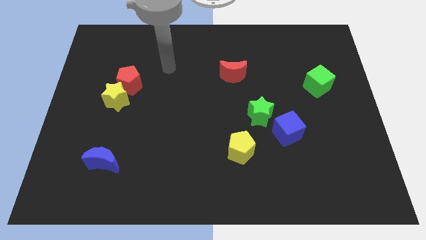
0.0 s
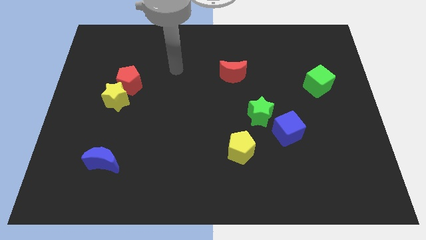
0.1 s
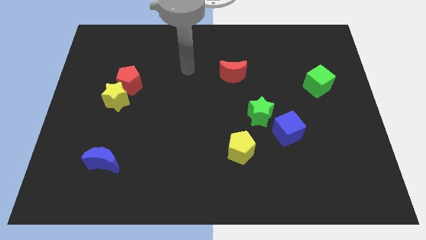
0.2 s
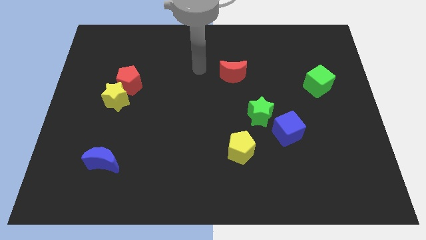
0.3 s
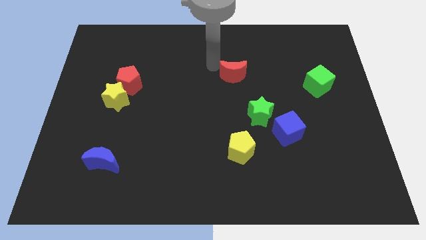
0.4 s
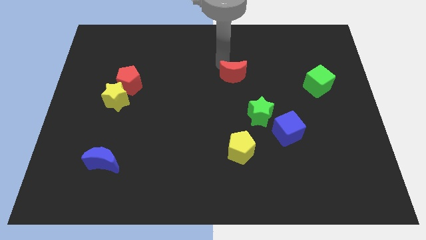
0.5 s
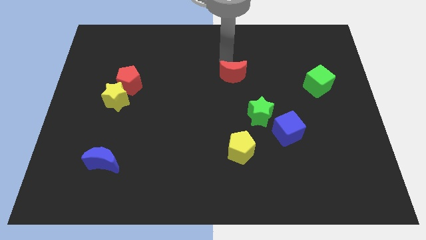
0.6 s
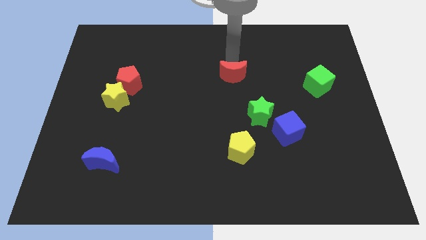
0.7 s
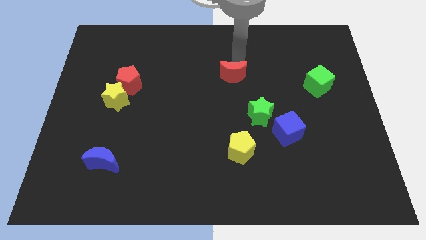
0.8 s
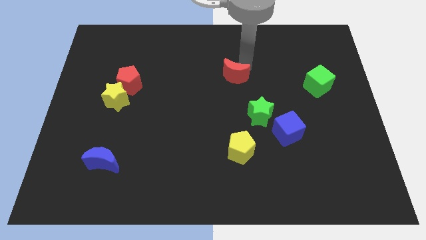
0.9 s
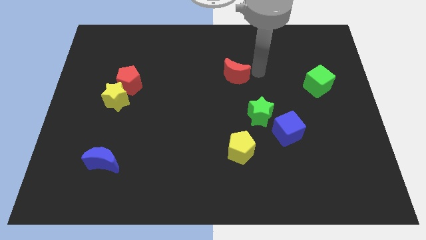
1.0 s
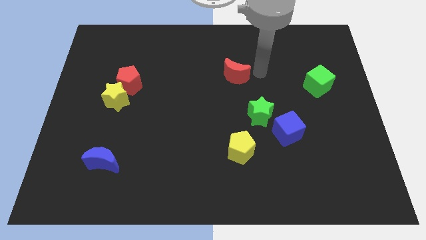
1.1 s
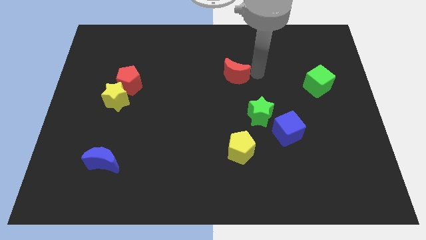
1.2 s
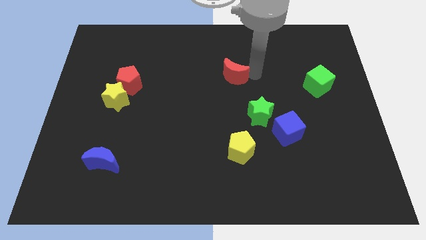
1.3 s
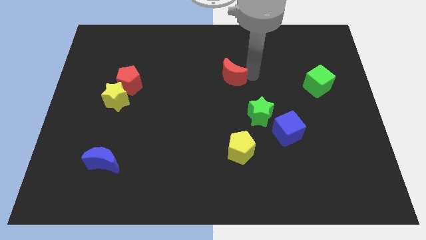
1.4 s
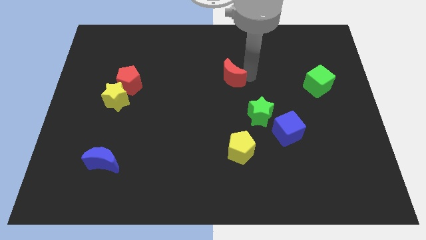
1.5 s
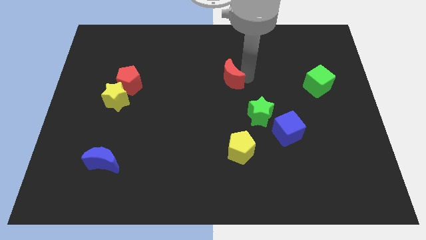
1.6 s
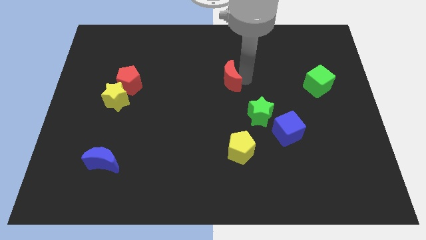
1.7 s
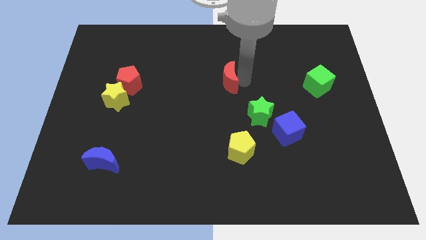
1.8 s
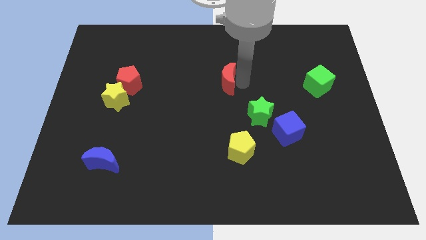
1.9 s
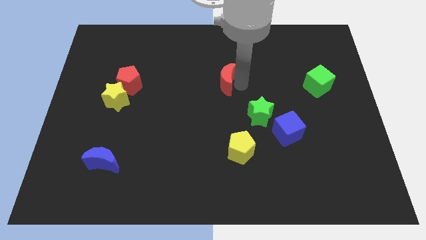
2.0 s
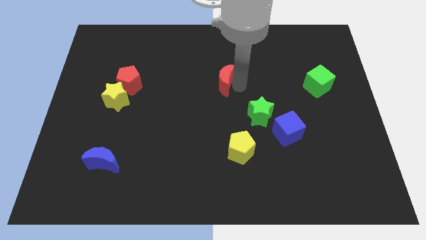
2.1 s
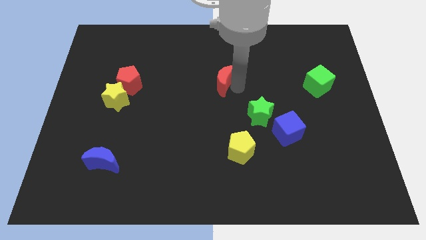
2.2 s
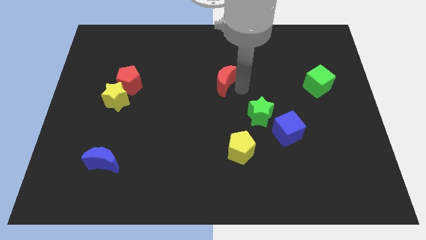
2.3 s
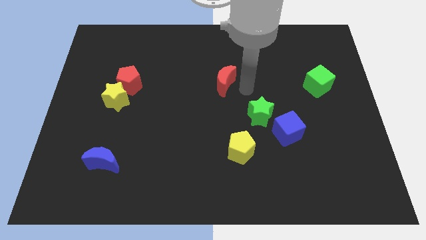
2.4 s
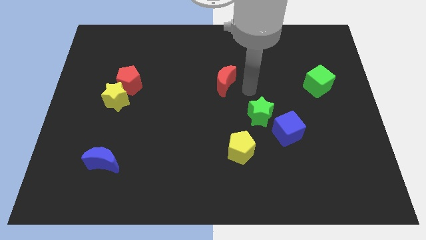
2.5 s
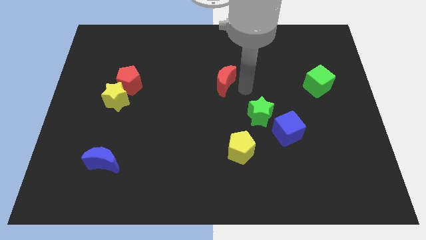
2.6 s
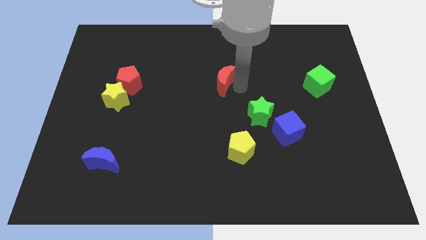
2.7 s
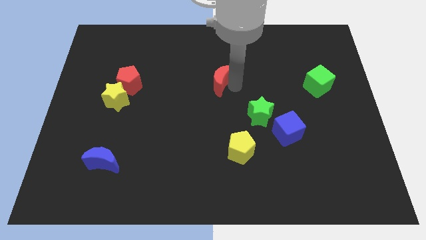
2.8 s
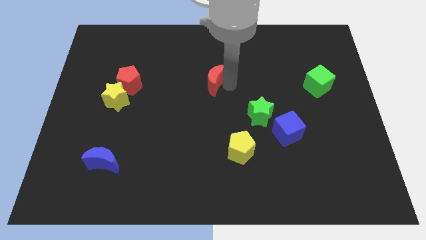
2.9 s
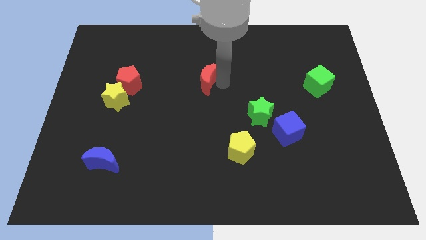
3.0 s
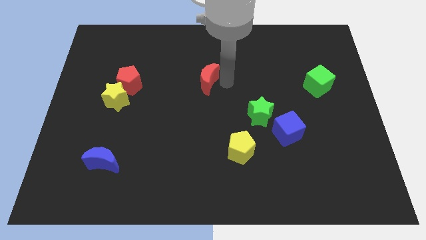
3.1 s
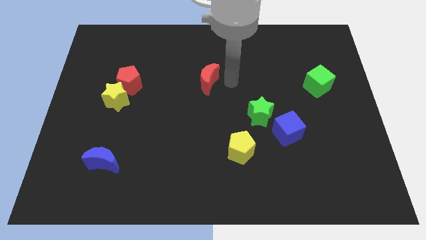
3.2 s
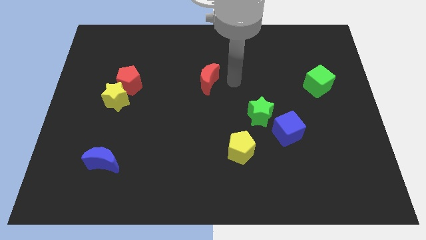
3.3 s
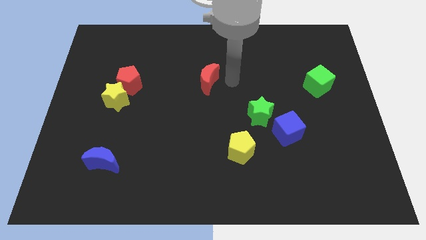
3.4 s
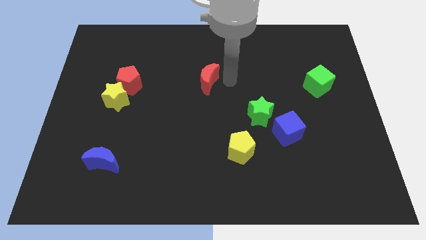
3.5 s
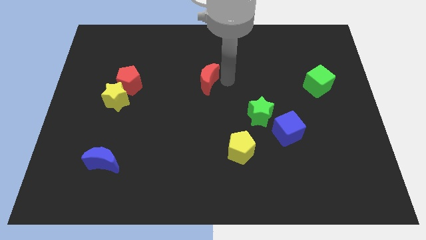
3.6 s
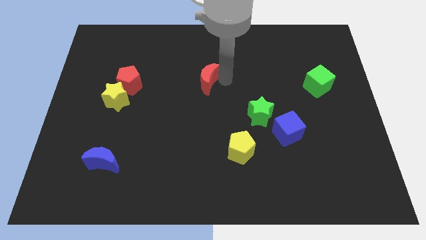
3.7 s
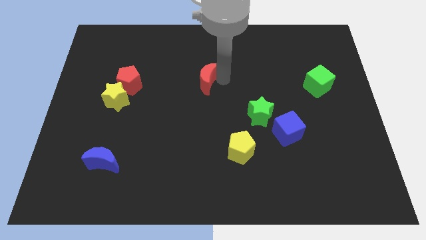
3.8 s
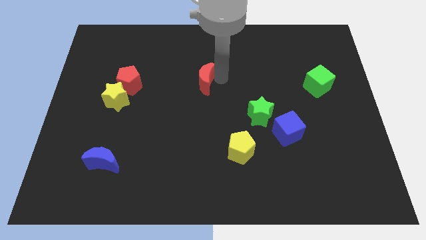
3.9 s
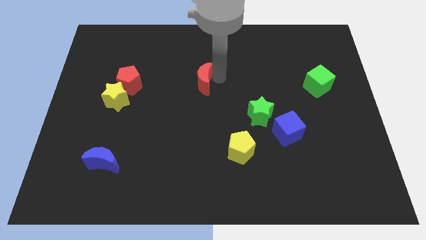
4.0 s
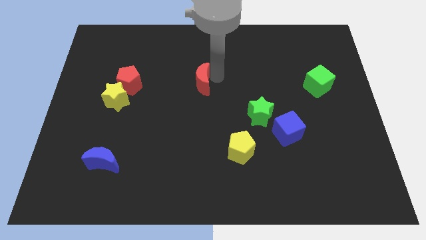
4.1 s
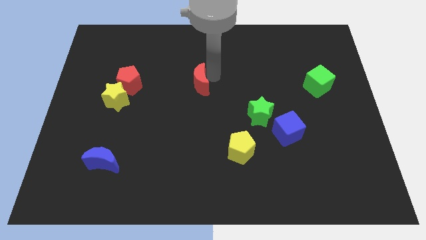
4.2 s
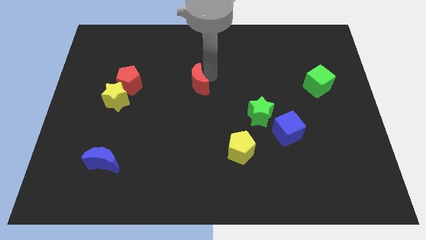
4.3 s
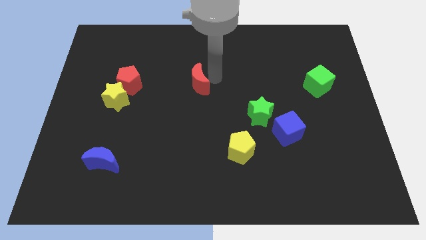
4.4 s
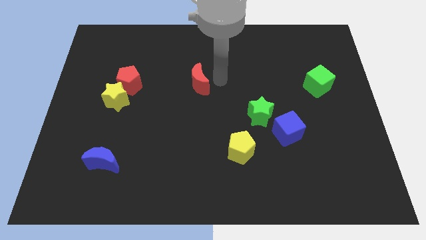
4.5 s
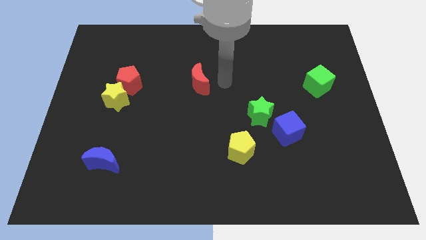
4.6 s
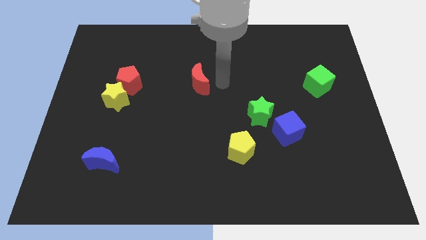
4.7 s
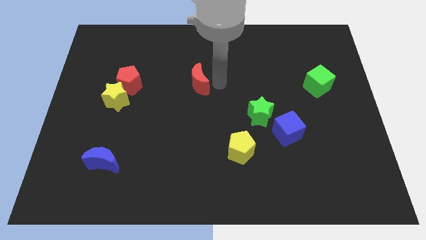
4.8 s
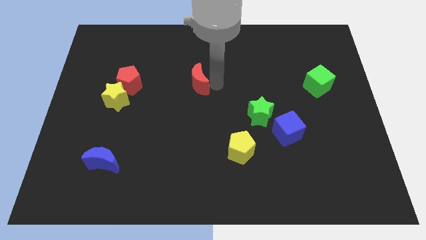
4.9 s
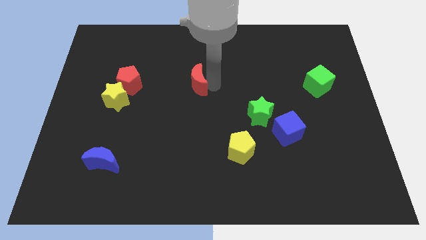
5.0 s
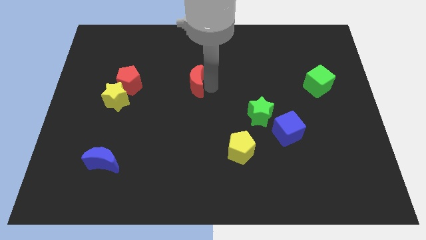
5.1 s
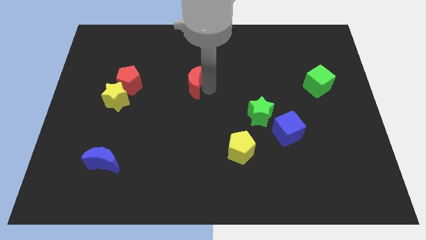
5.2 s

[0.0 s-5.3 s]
move the red moon to the right side of the red pentagon

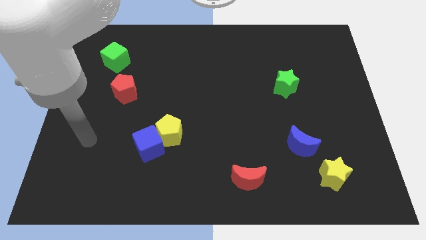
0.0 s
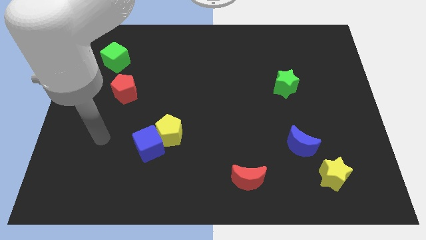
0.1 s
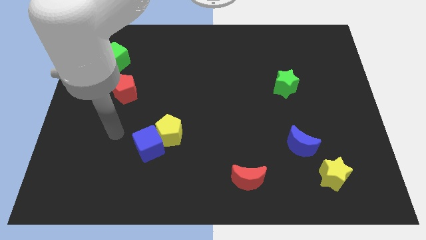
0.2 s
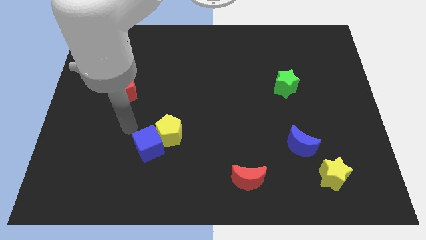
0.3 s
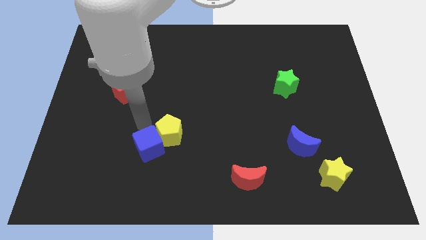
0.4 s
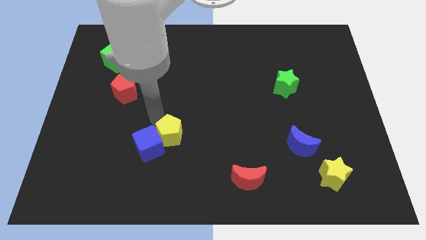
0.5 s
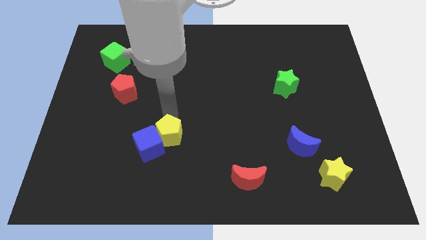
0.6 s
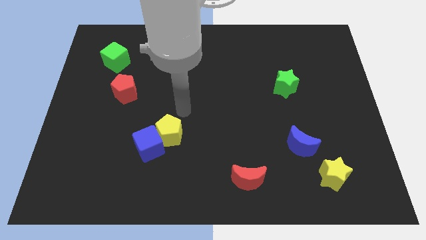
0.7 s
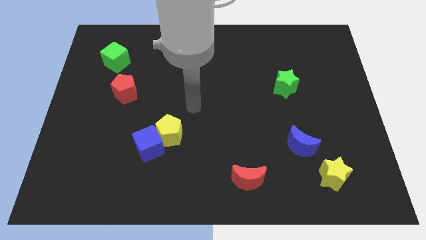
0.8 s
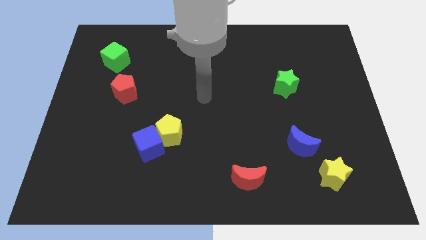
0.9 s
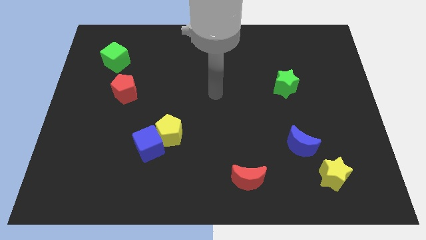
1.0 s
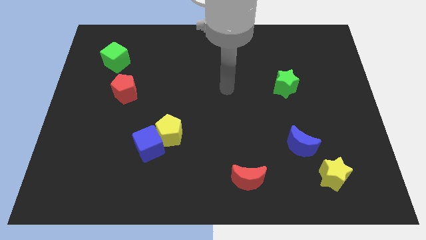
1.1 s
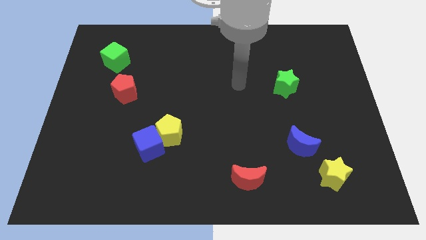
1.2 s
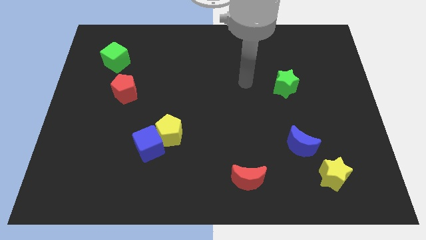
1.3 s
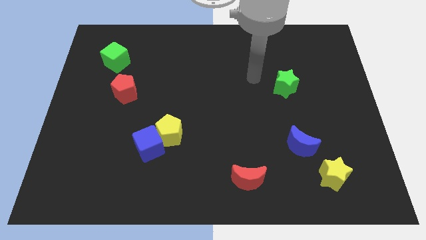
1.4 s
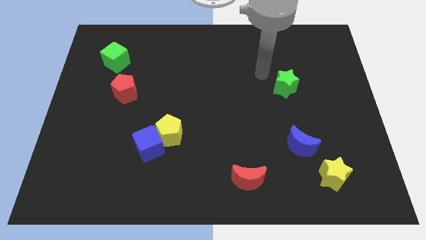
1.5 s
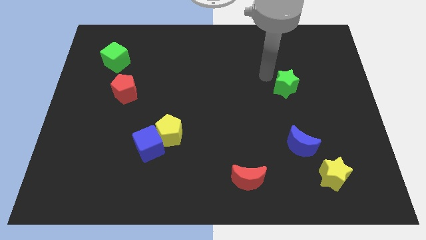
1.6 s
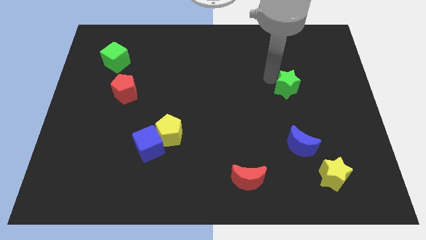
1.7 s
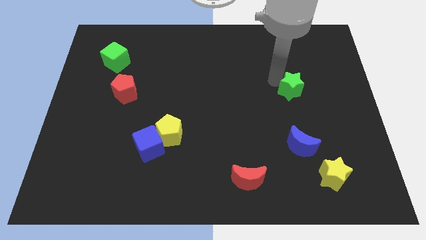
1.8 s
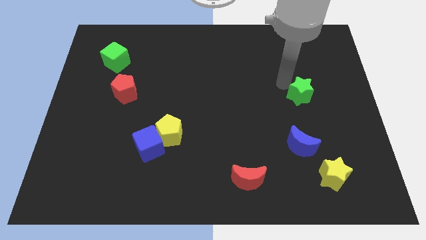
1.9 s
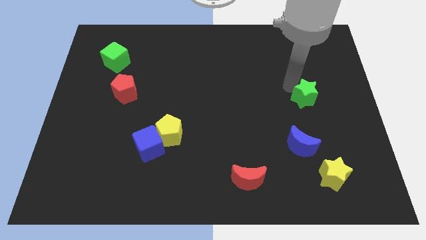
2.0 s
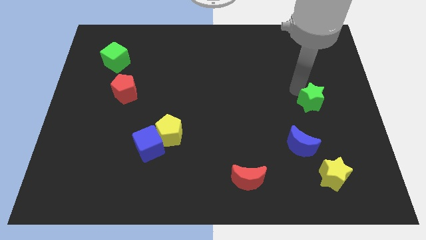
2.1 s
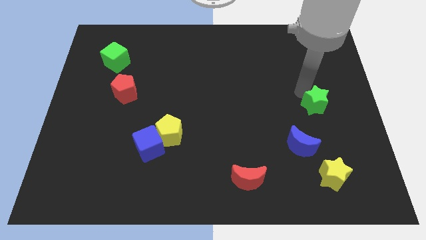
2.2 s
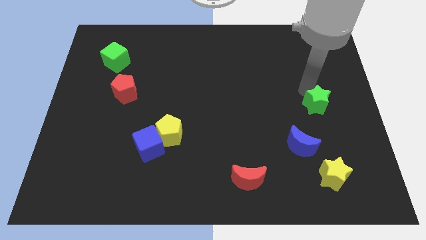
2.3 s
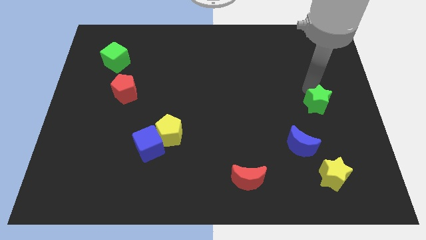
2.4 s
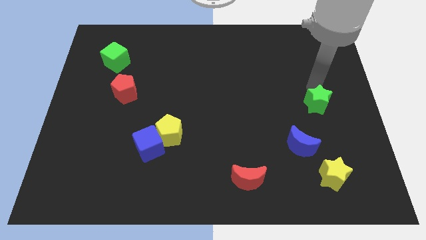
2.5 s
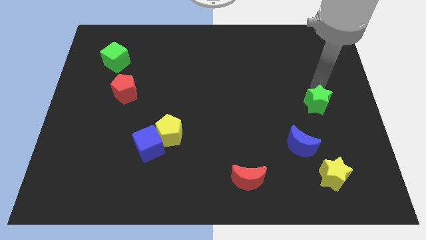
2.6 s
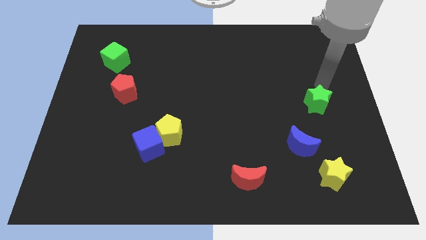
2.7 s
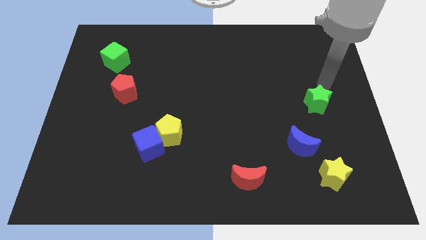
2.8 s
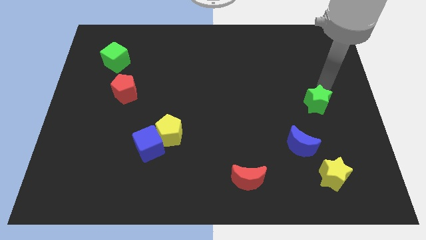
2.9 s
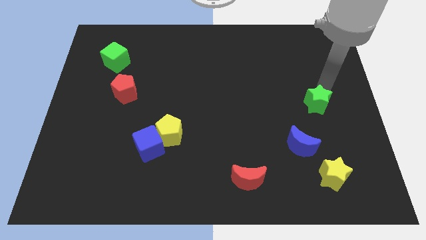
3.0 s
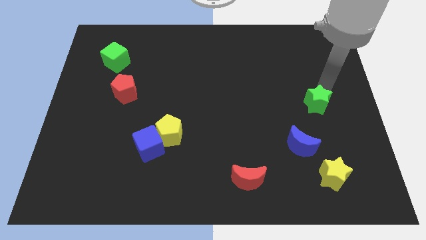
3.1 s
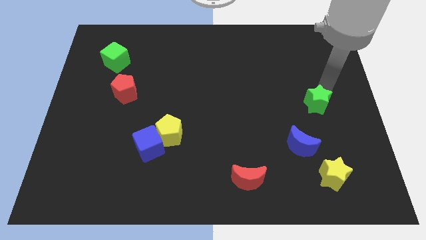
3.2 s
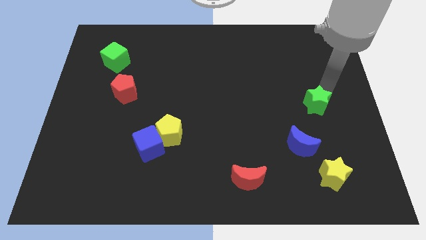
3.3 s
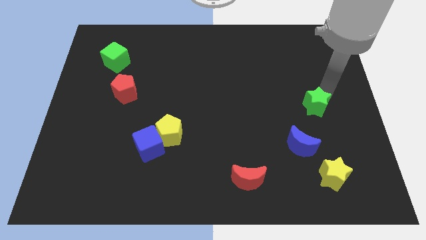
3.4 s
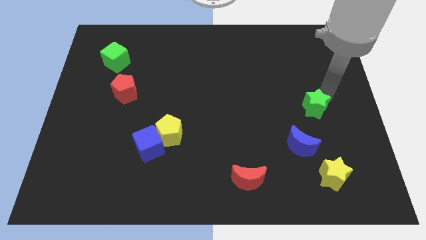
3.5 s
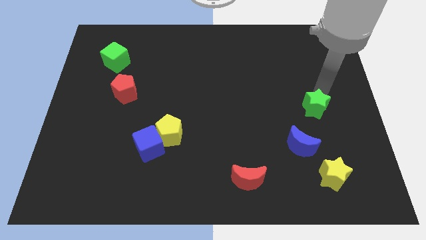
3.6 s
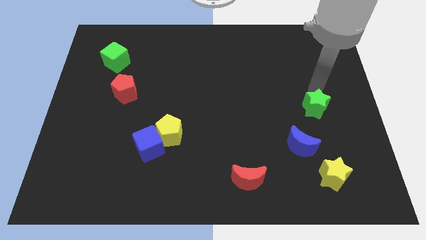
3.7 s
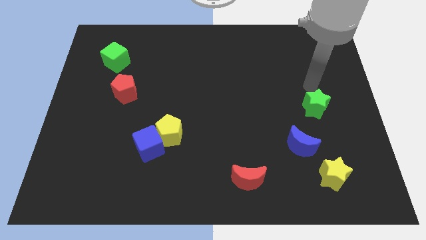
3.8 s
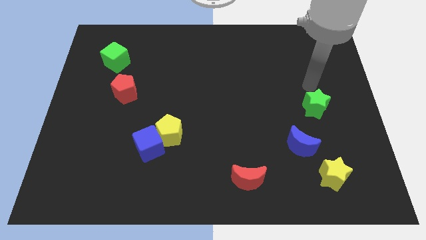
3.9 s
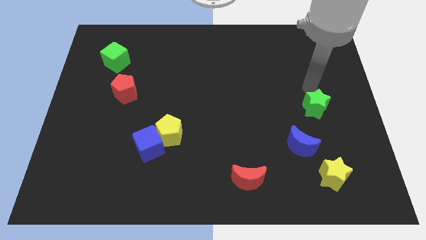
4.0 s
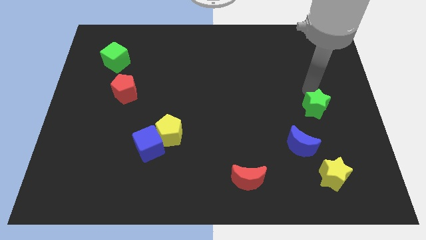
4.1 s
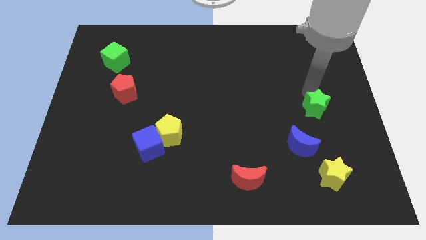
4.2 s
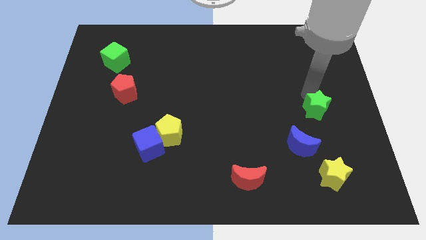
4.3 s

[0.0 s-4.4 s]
push the green star to the top right of the blue moon
